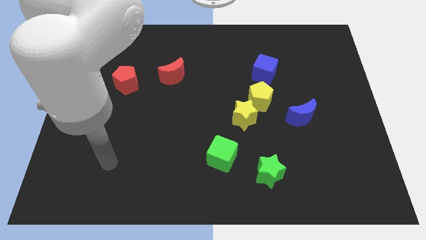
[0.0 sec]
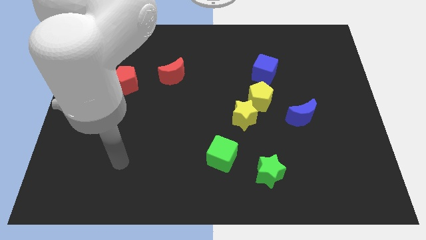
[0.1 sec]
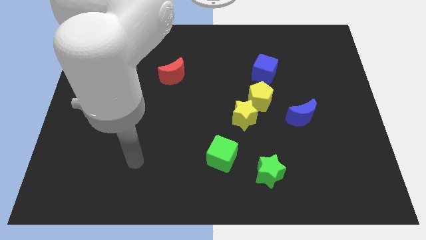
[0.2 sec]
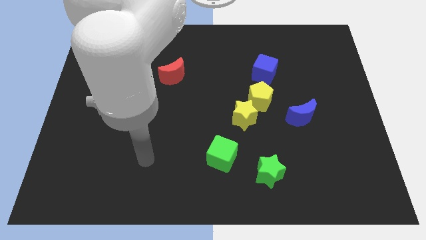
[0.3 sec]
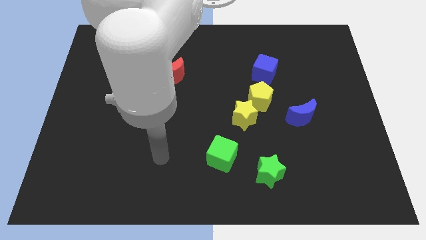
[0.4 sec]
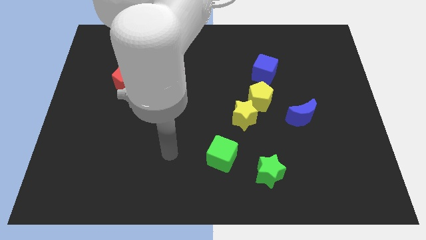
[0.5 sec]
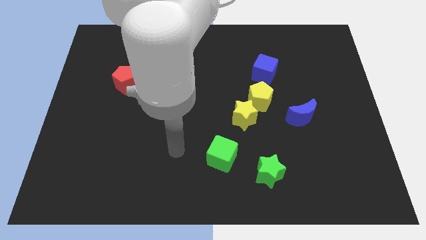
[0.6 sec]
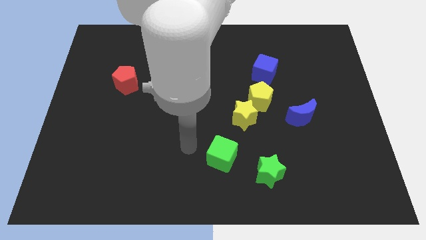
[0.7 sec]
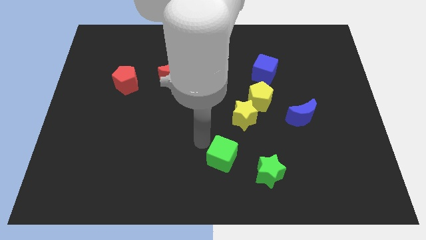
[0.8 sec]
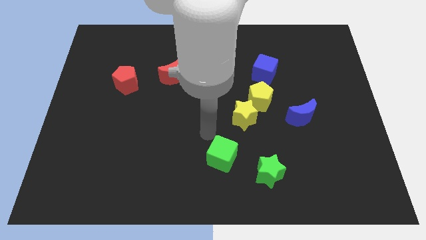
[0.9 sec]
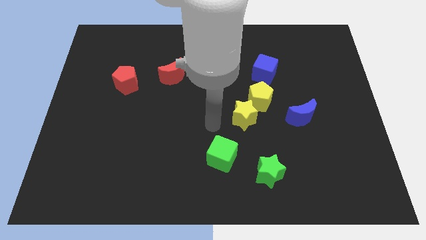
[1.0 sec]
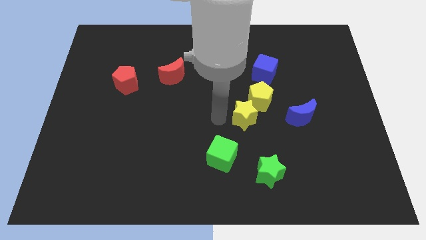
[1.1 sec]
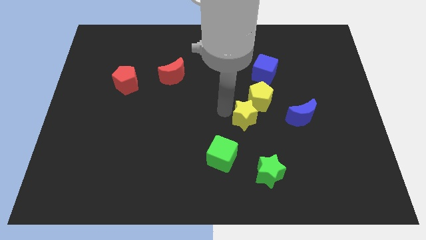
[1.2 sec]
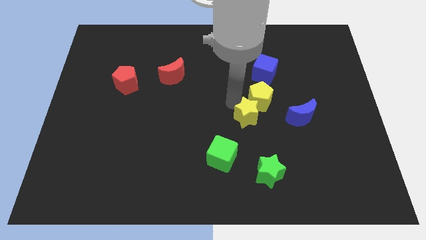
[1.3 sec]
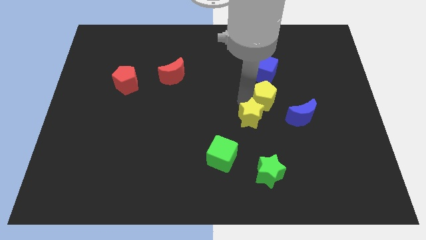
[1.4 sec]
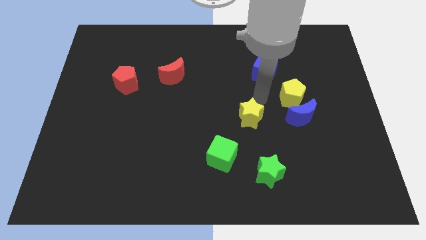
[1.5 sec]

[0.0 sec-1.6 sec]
pull the yellow star apart from the yellow pentagon

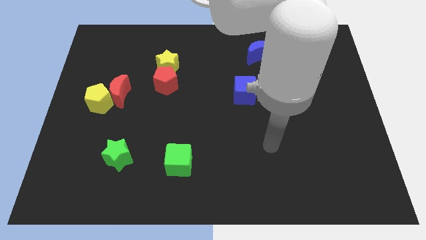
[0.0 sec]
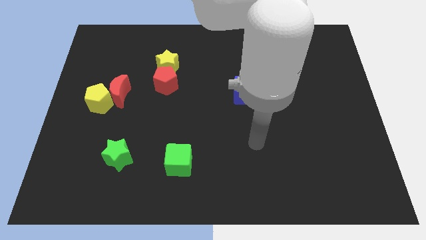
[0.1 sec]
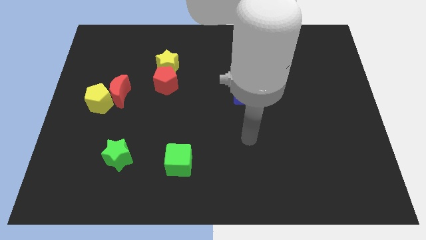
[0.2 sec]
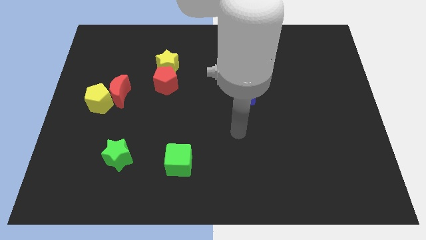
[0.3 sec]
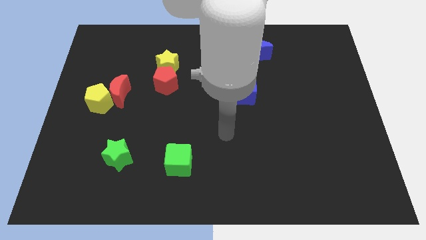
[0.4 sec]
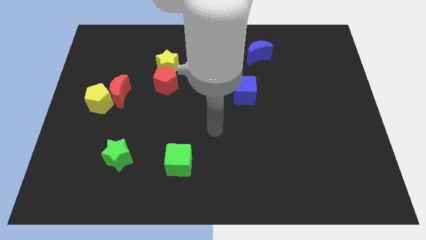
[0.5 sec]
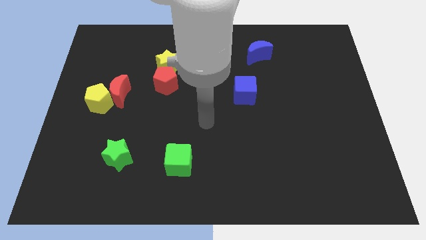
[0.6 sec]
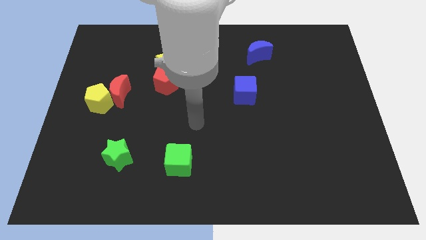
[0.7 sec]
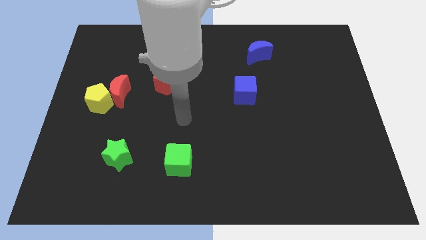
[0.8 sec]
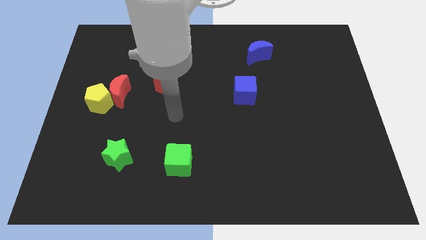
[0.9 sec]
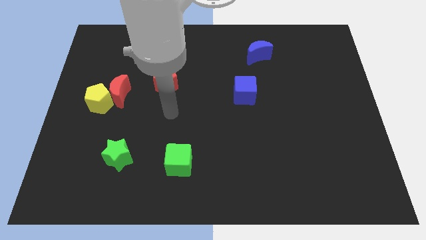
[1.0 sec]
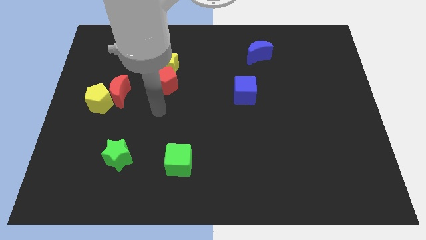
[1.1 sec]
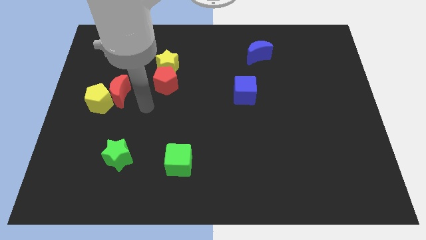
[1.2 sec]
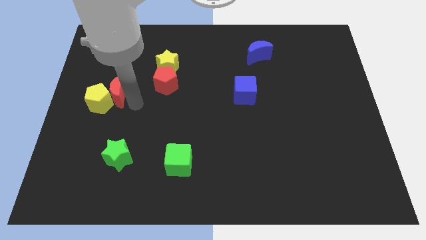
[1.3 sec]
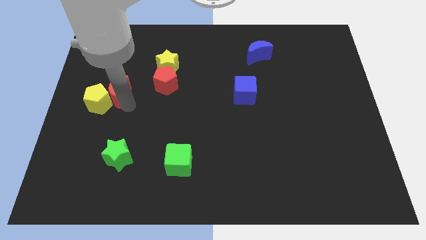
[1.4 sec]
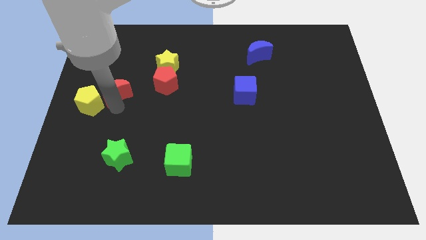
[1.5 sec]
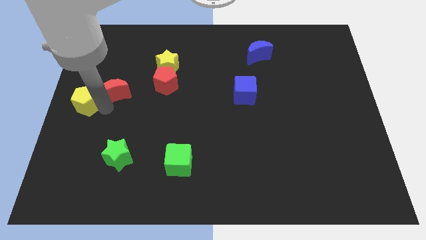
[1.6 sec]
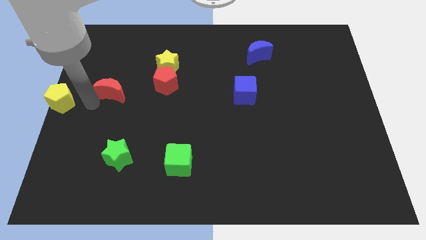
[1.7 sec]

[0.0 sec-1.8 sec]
pull the red moon apart from the yellow pentagon

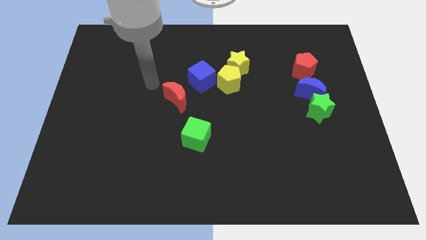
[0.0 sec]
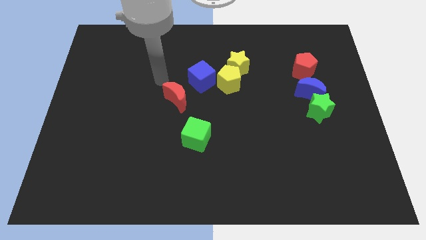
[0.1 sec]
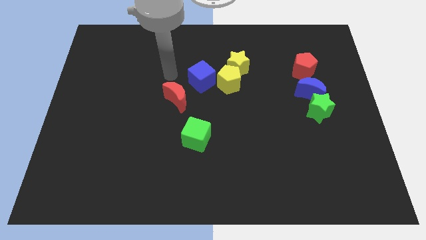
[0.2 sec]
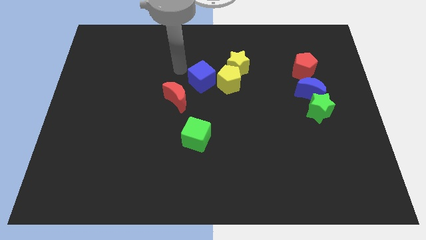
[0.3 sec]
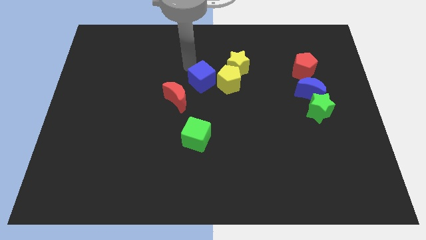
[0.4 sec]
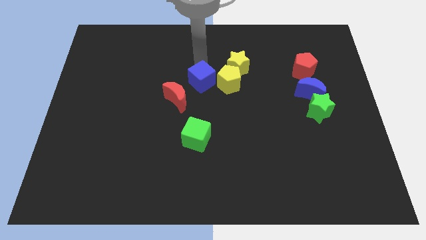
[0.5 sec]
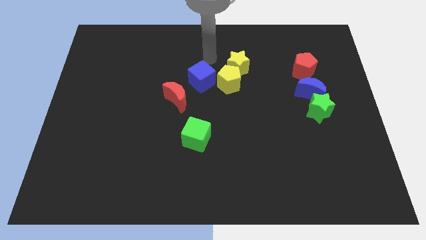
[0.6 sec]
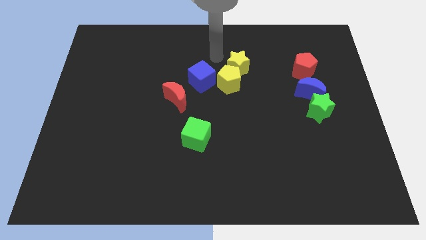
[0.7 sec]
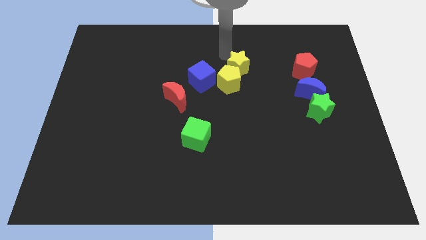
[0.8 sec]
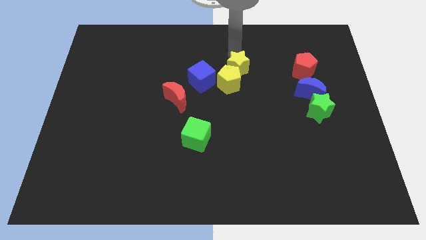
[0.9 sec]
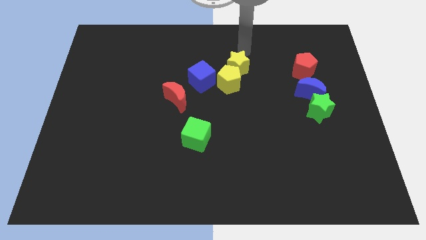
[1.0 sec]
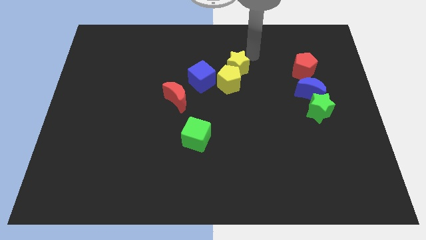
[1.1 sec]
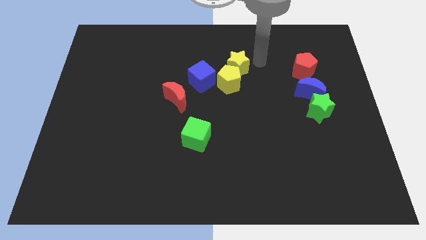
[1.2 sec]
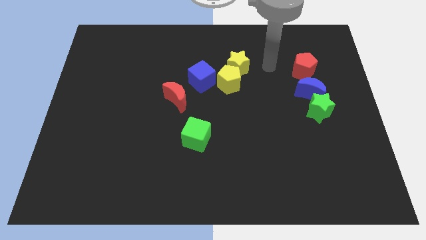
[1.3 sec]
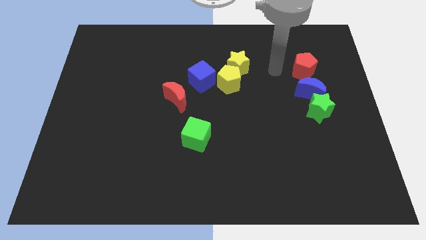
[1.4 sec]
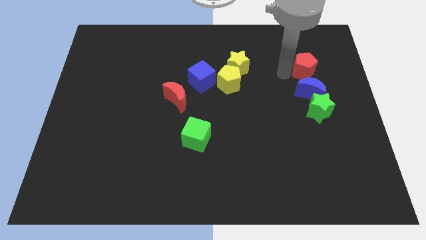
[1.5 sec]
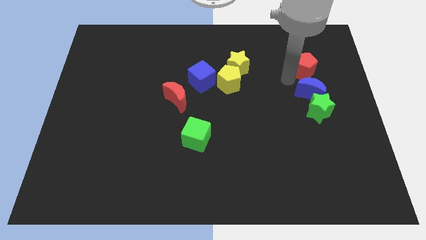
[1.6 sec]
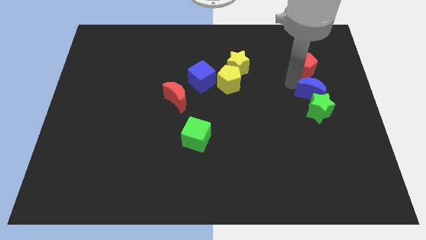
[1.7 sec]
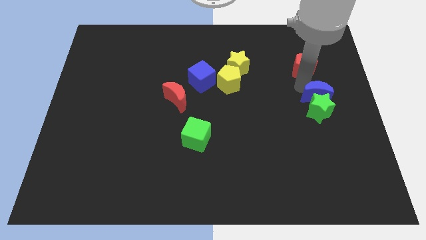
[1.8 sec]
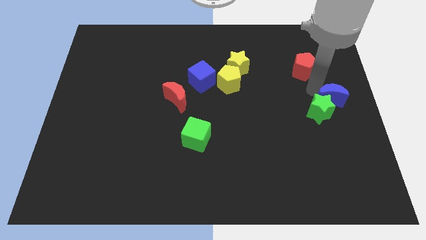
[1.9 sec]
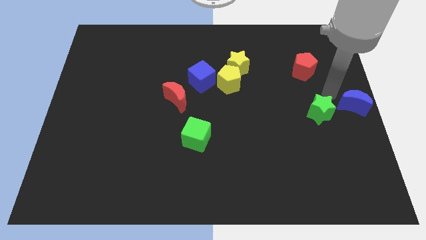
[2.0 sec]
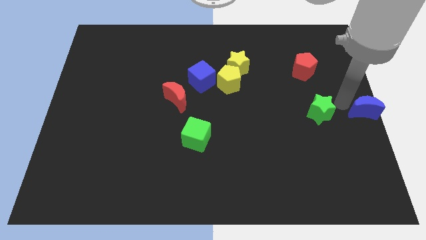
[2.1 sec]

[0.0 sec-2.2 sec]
move the green star away from the blue moon

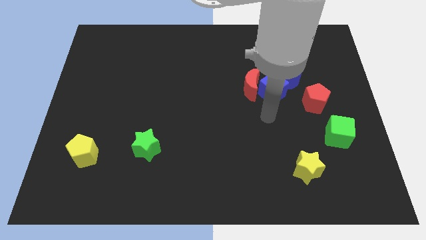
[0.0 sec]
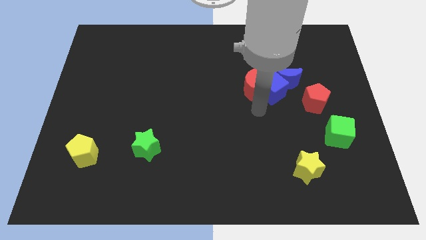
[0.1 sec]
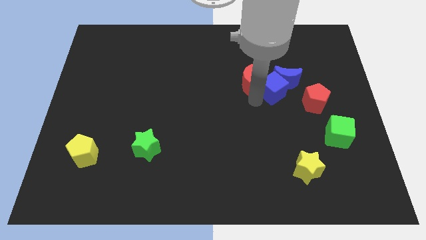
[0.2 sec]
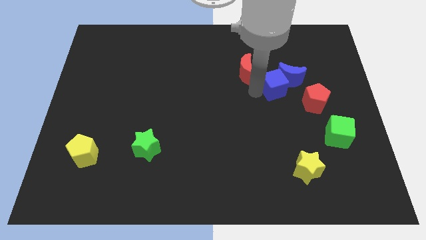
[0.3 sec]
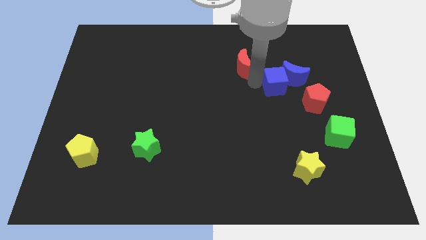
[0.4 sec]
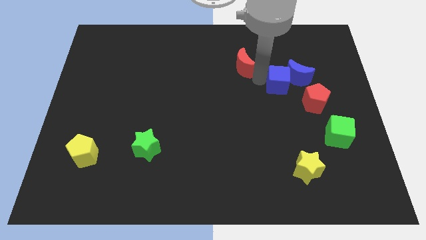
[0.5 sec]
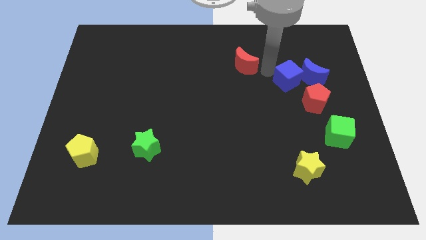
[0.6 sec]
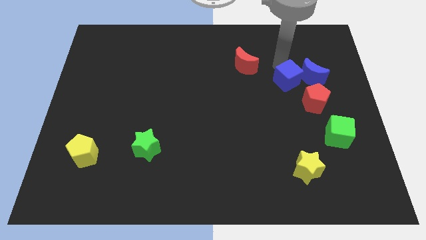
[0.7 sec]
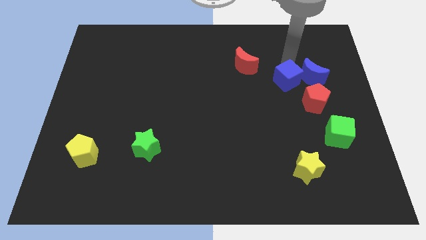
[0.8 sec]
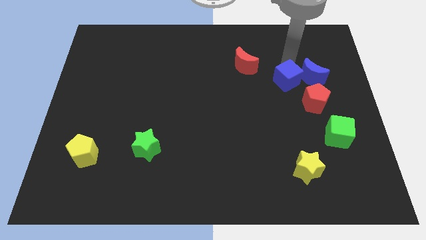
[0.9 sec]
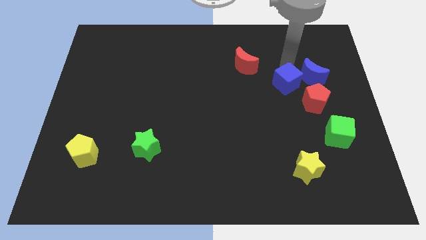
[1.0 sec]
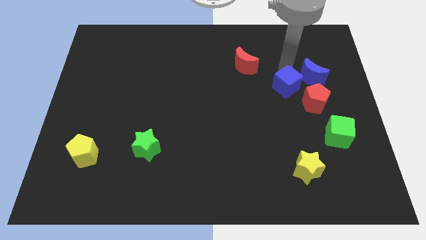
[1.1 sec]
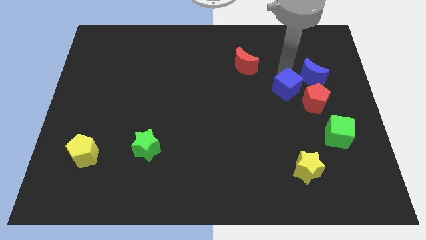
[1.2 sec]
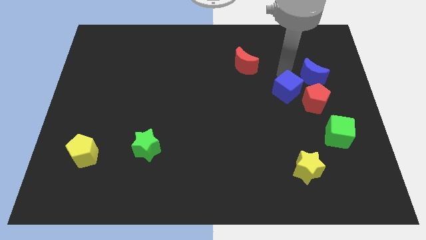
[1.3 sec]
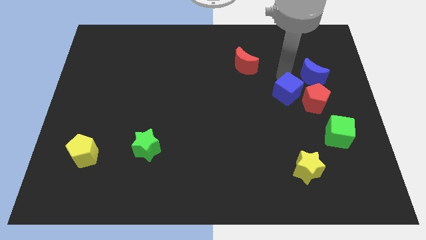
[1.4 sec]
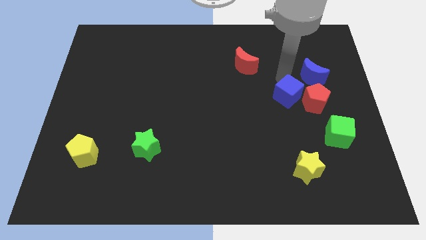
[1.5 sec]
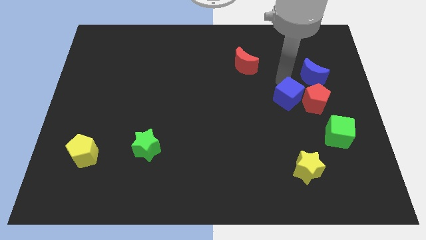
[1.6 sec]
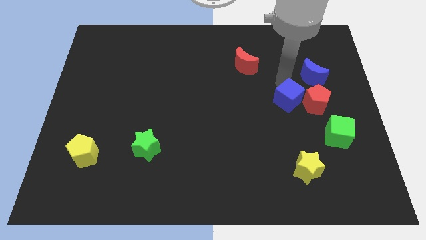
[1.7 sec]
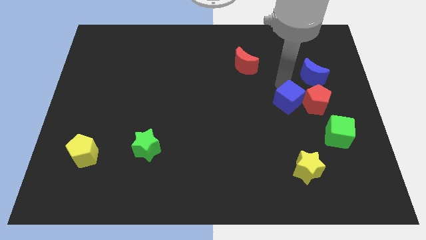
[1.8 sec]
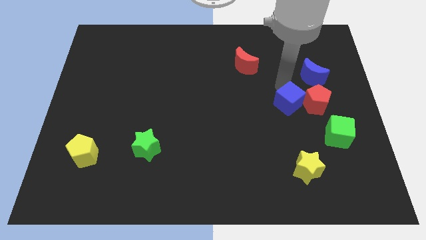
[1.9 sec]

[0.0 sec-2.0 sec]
move the blue cube away from the blue moon and red moon

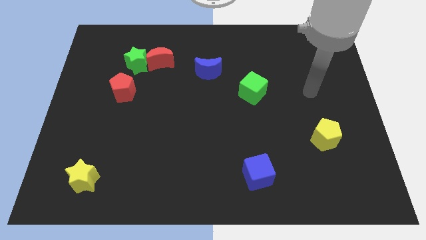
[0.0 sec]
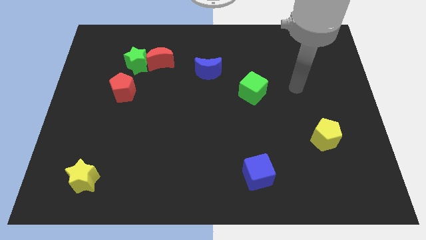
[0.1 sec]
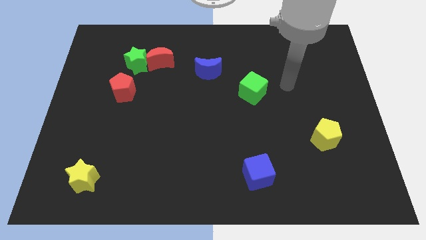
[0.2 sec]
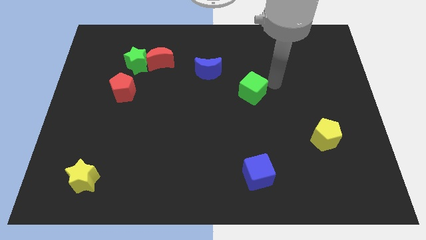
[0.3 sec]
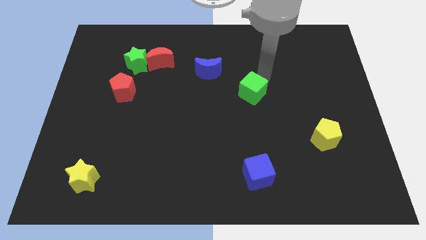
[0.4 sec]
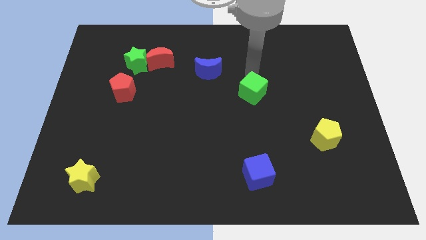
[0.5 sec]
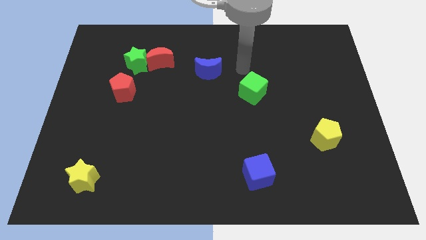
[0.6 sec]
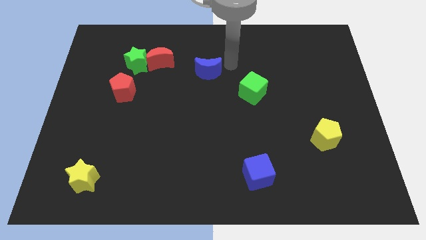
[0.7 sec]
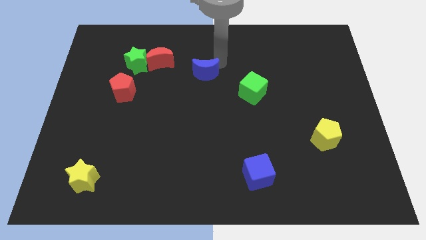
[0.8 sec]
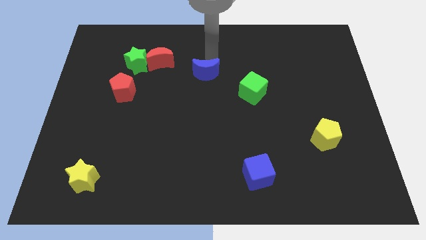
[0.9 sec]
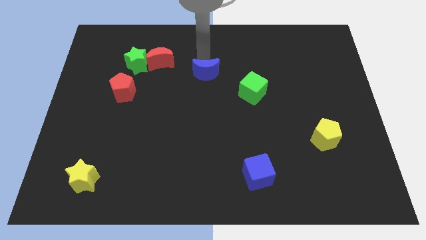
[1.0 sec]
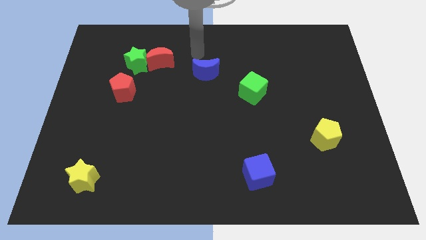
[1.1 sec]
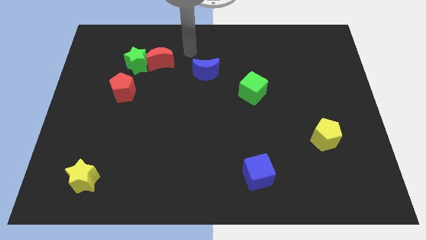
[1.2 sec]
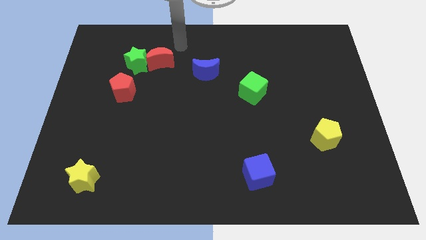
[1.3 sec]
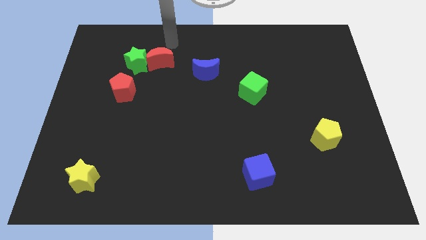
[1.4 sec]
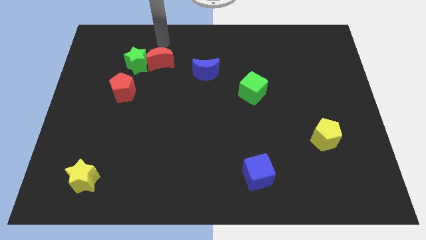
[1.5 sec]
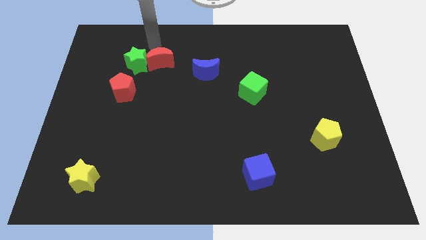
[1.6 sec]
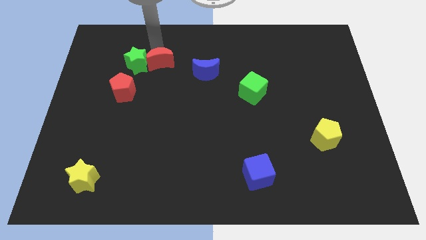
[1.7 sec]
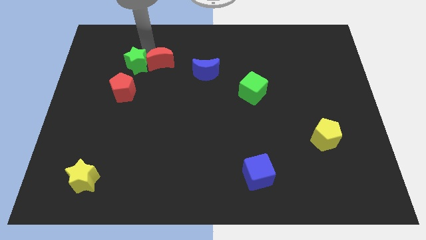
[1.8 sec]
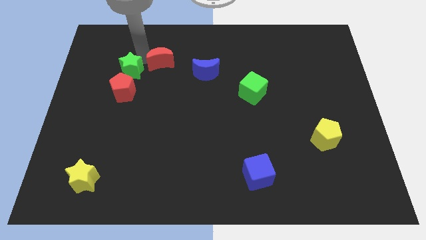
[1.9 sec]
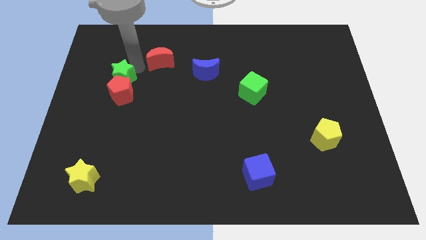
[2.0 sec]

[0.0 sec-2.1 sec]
pull the red moon apart from the green star
